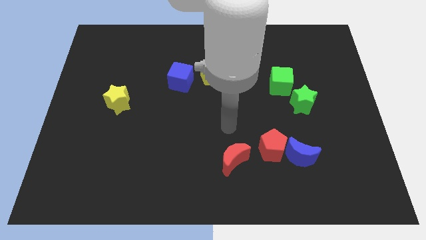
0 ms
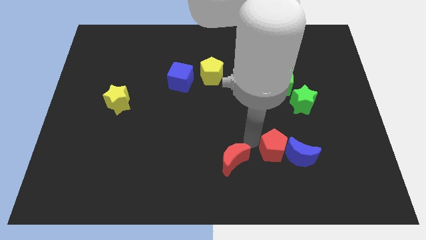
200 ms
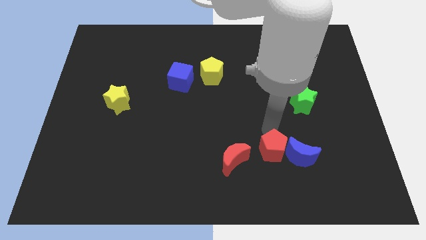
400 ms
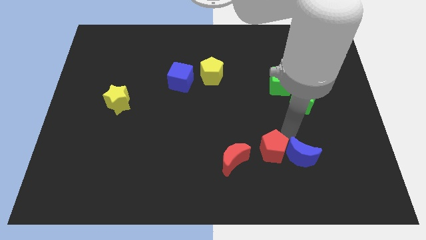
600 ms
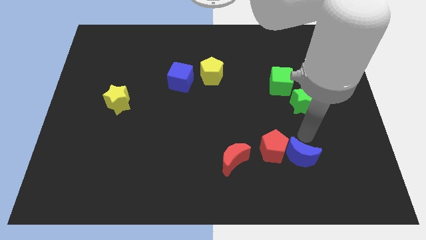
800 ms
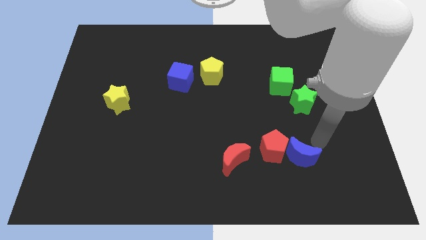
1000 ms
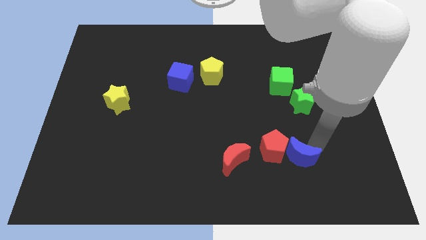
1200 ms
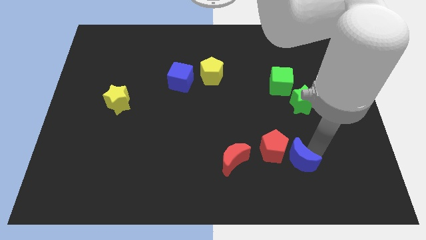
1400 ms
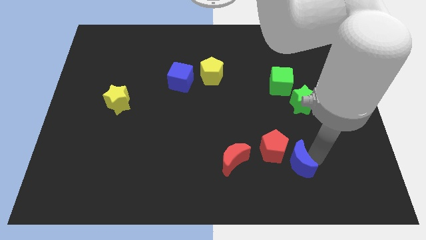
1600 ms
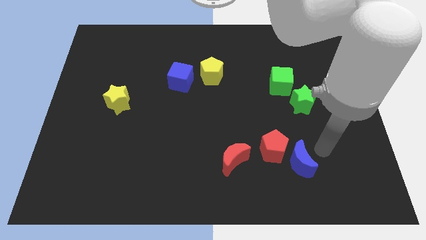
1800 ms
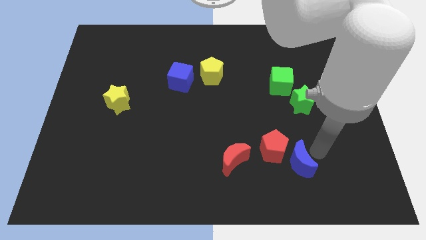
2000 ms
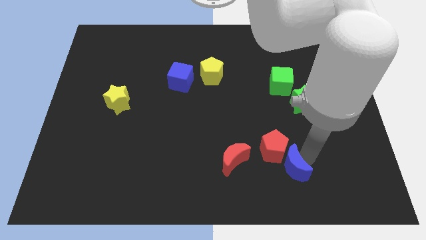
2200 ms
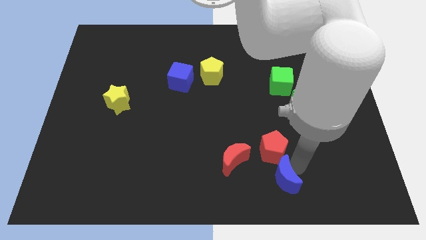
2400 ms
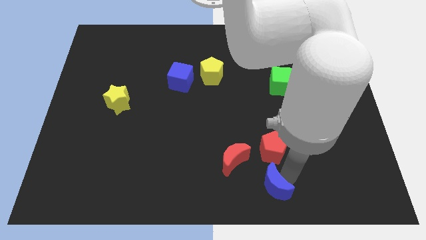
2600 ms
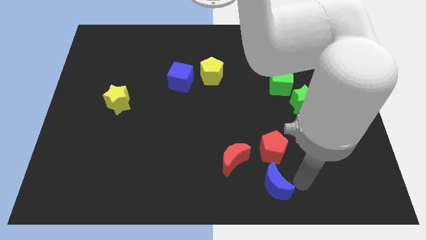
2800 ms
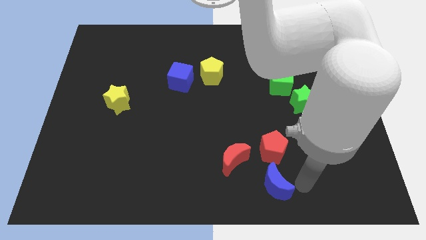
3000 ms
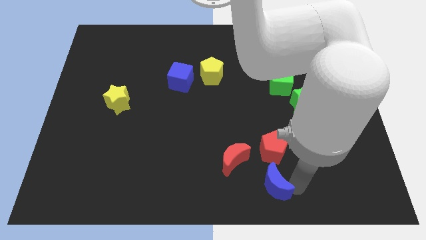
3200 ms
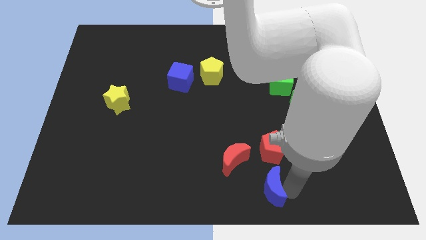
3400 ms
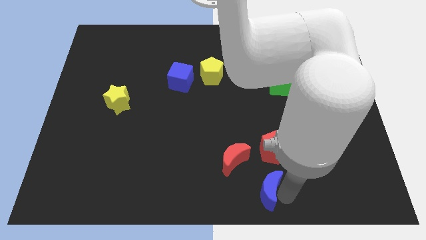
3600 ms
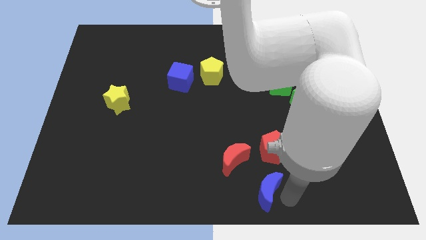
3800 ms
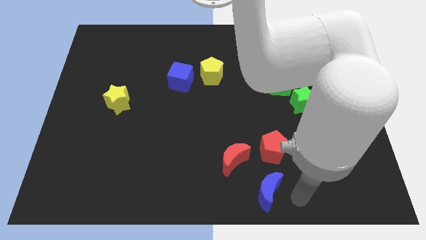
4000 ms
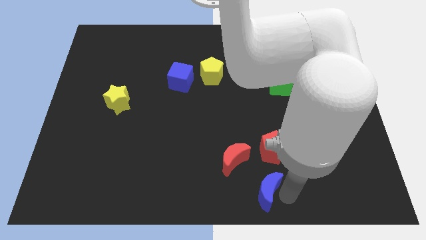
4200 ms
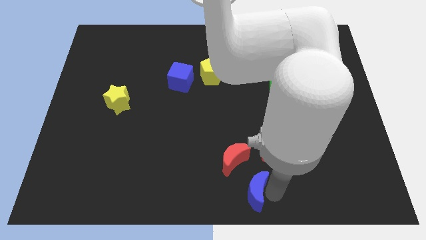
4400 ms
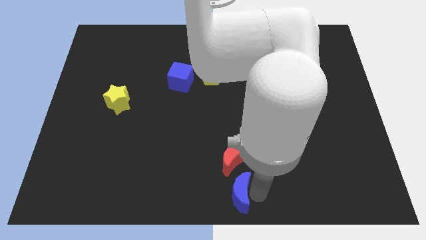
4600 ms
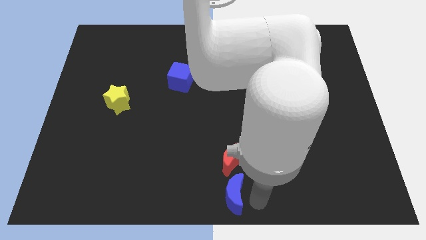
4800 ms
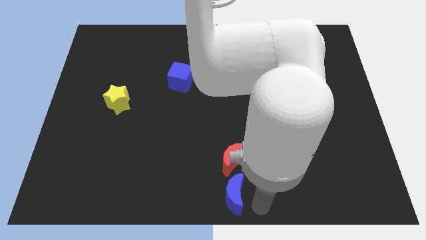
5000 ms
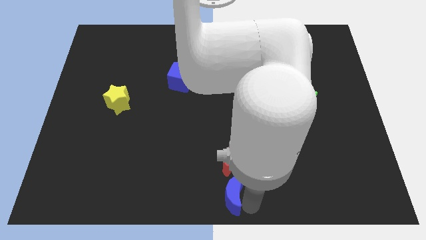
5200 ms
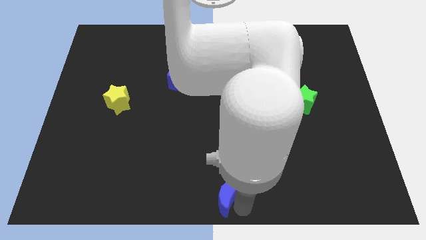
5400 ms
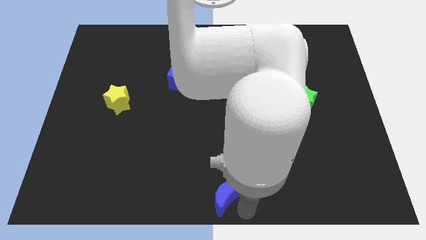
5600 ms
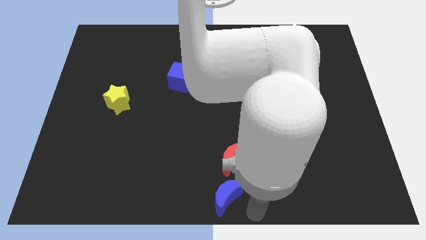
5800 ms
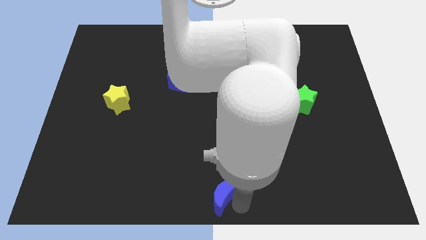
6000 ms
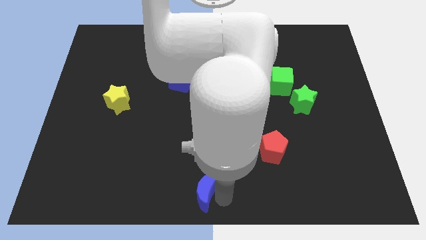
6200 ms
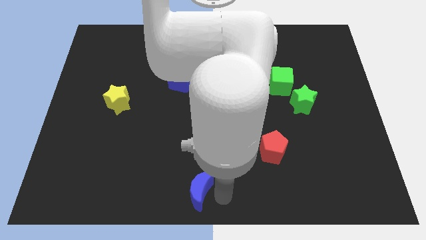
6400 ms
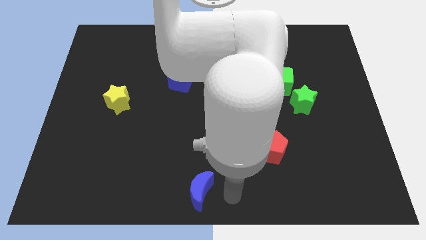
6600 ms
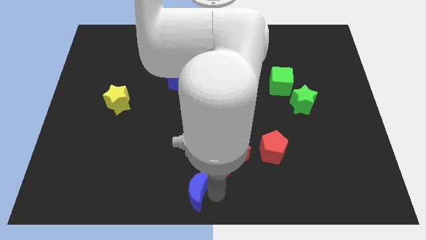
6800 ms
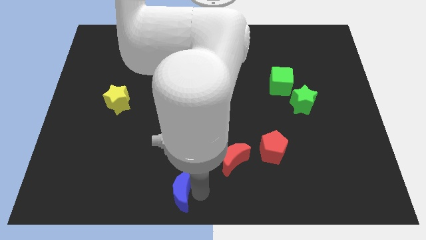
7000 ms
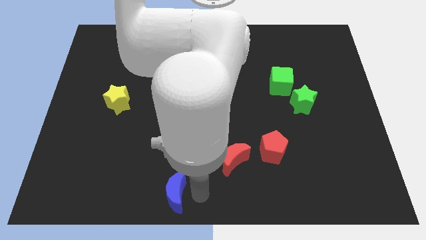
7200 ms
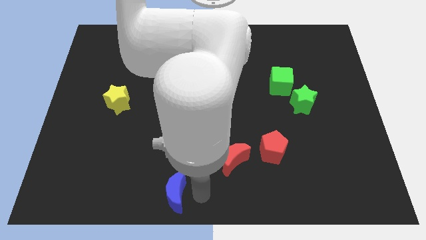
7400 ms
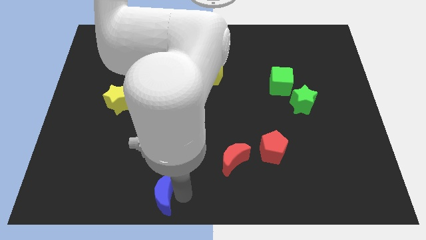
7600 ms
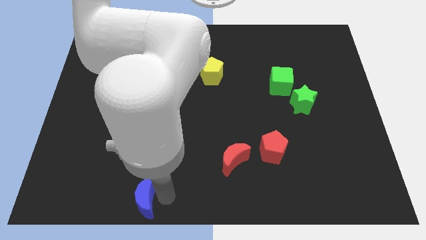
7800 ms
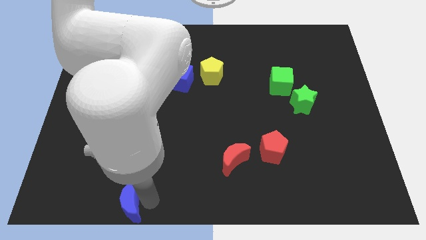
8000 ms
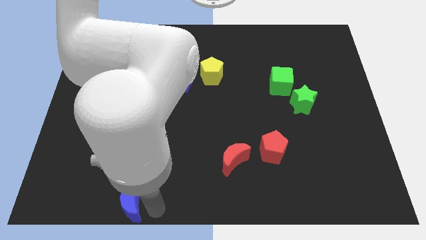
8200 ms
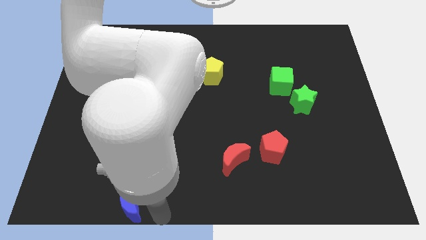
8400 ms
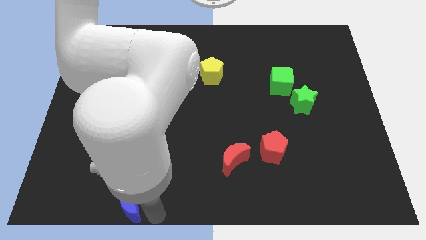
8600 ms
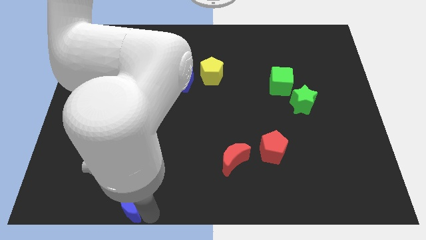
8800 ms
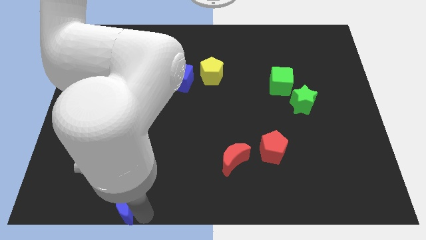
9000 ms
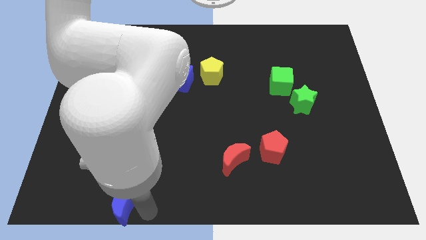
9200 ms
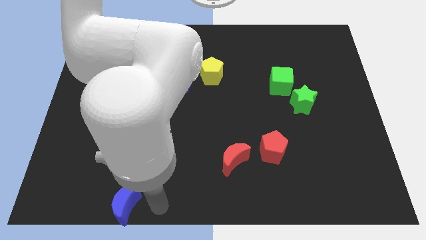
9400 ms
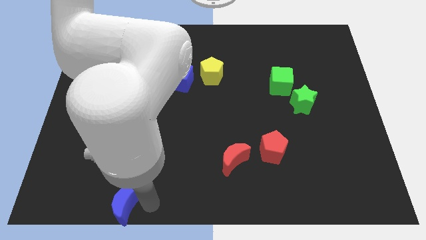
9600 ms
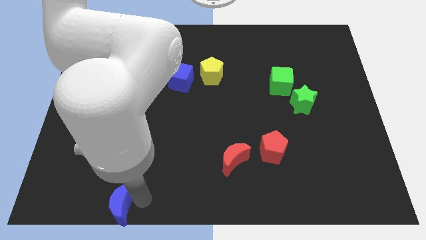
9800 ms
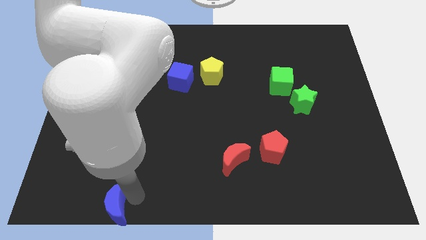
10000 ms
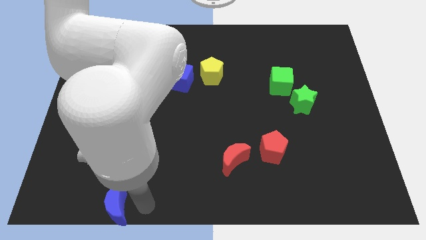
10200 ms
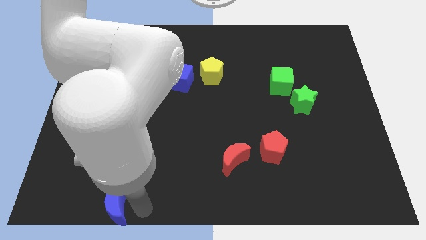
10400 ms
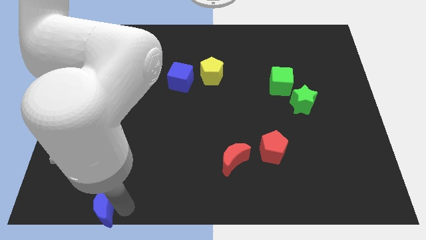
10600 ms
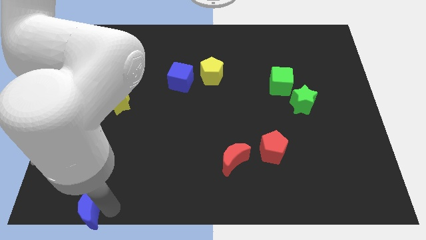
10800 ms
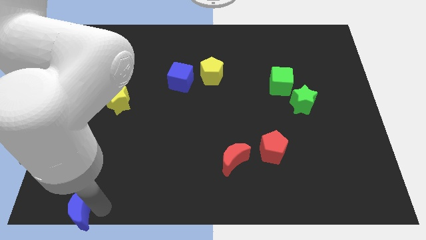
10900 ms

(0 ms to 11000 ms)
push the blue moon to the bottom left
